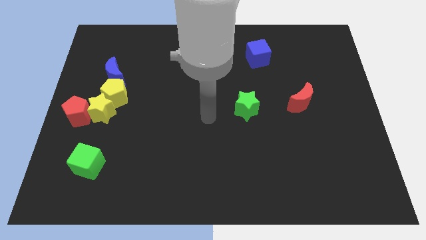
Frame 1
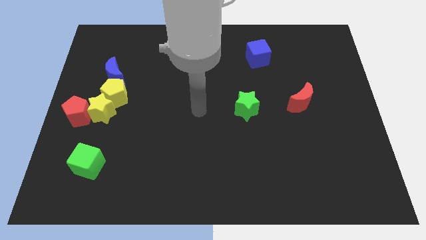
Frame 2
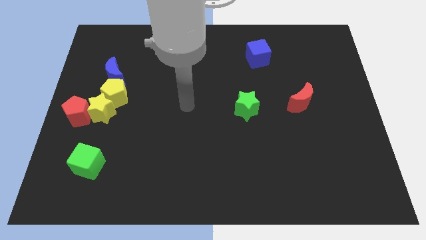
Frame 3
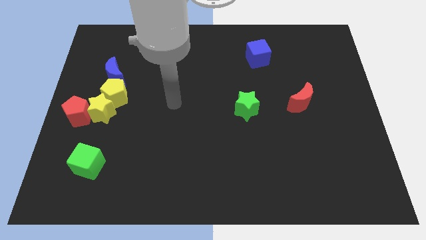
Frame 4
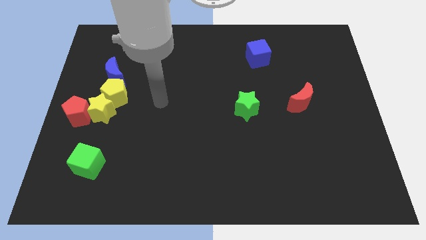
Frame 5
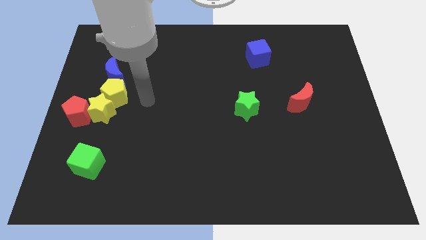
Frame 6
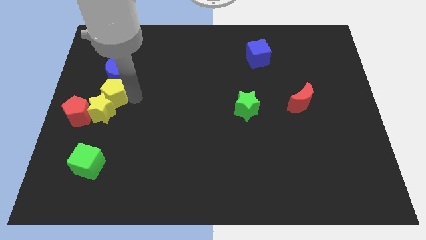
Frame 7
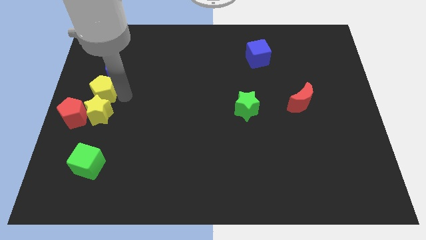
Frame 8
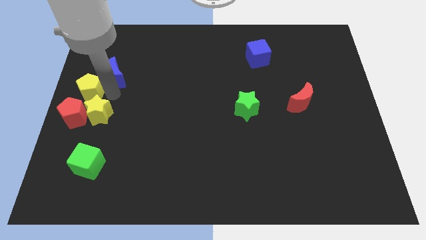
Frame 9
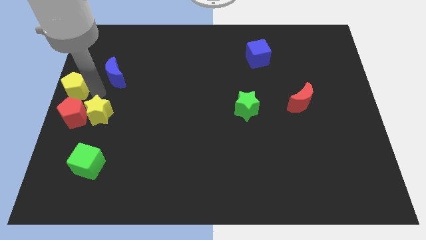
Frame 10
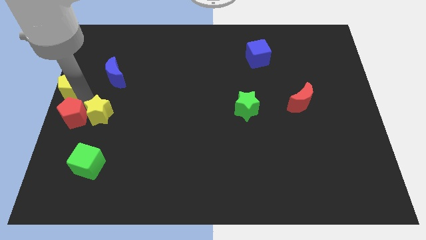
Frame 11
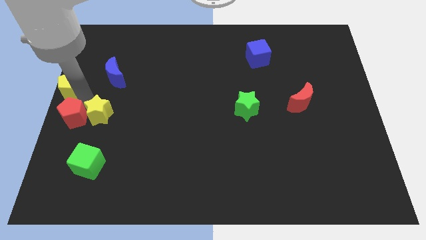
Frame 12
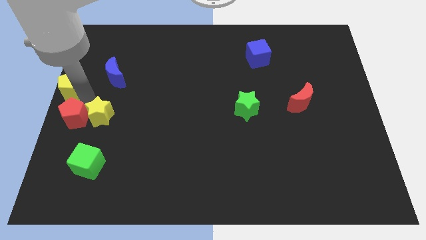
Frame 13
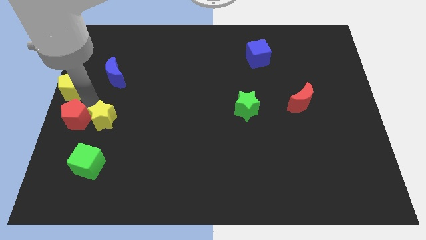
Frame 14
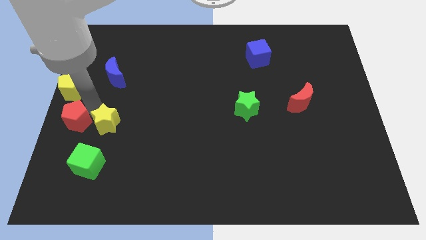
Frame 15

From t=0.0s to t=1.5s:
separate the yellow star from the yellow pentagon and red pentagon

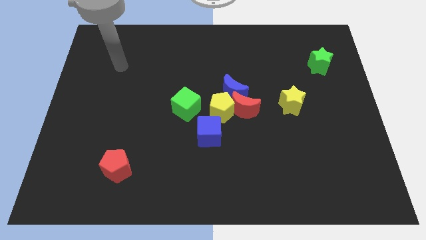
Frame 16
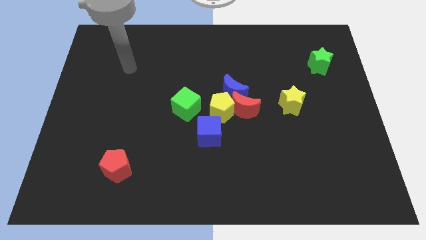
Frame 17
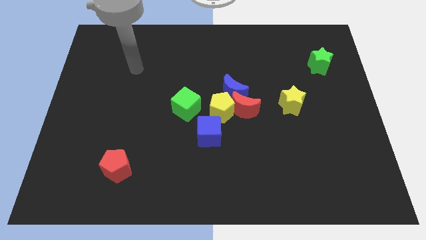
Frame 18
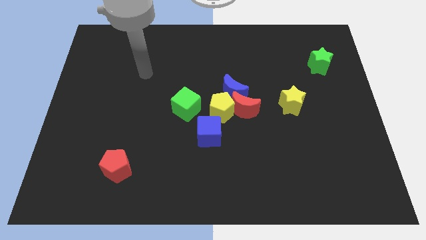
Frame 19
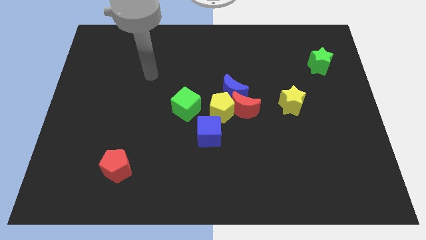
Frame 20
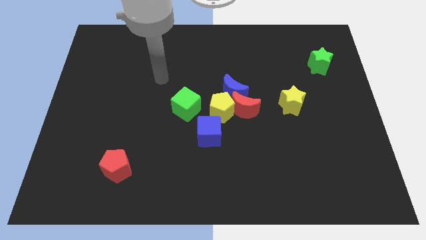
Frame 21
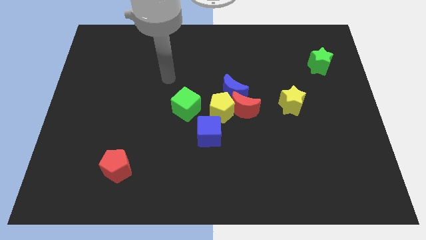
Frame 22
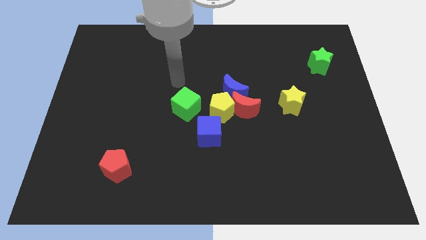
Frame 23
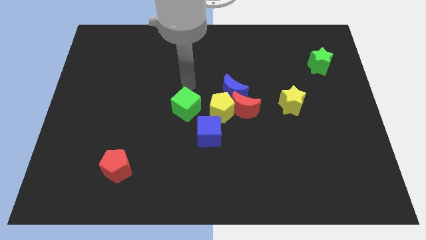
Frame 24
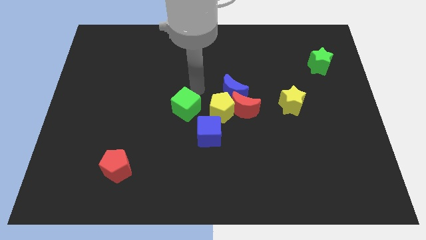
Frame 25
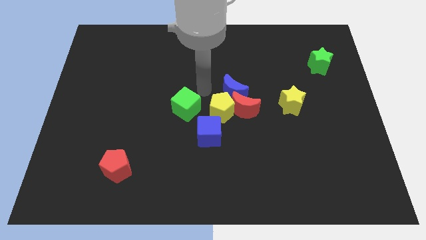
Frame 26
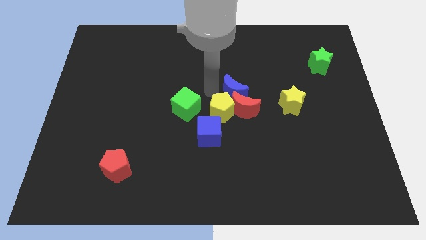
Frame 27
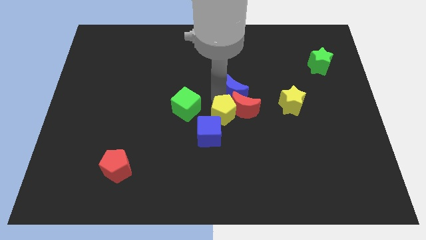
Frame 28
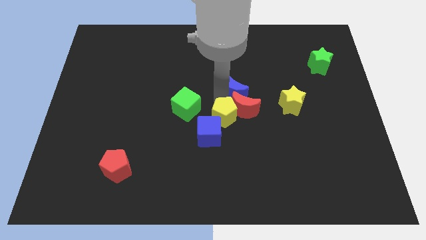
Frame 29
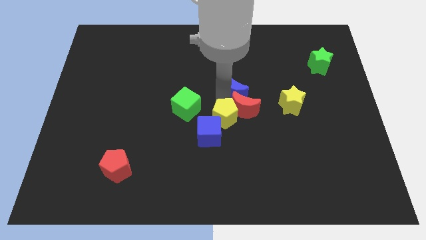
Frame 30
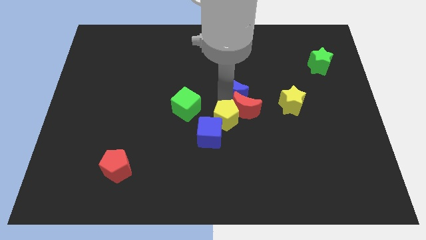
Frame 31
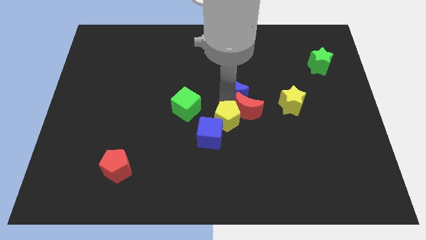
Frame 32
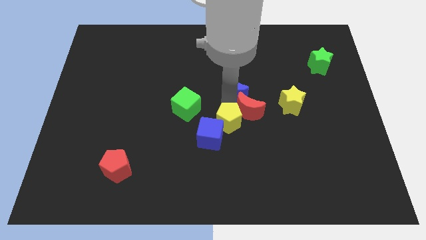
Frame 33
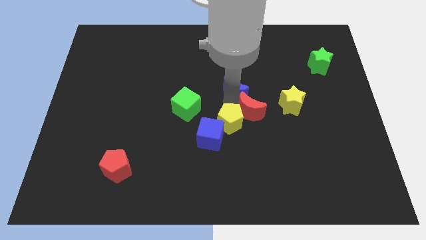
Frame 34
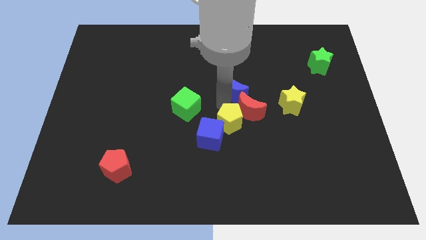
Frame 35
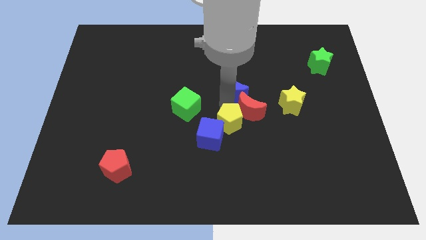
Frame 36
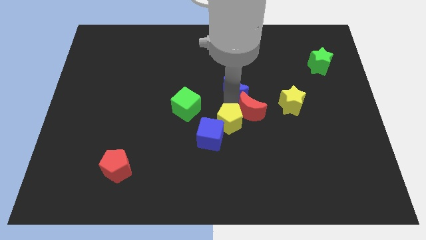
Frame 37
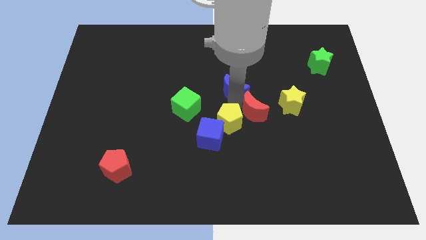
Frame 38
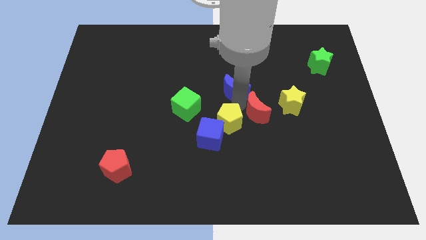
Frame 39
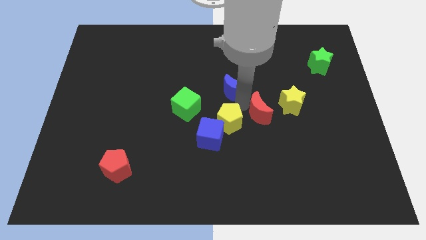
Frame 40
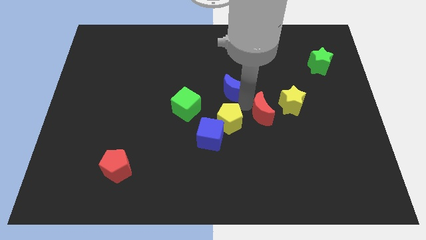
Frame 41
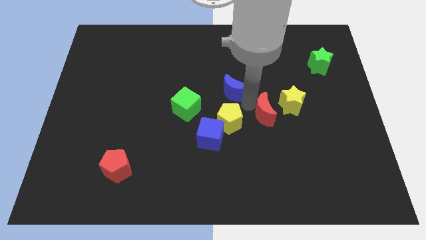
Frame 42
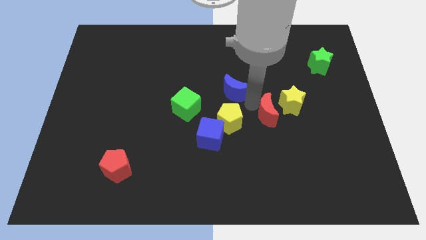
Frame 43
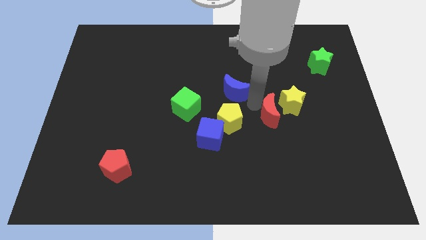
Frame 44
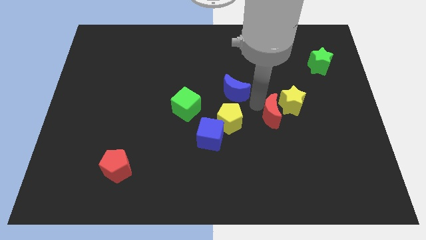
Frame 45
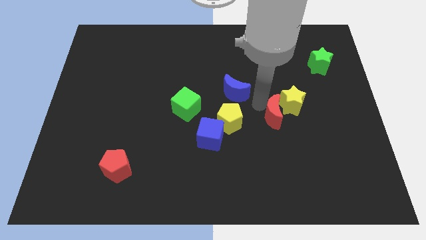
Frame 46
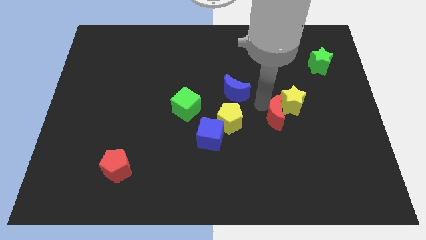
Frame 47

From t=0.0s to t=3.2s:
pull the red moon apart from the yellow pentagon and blue moon

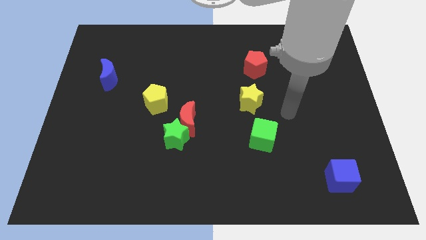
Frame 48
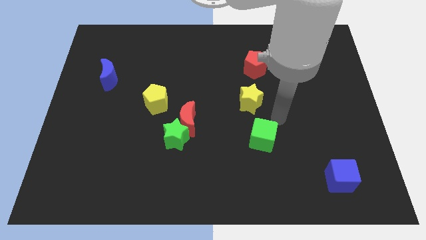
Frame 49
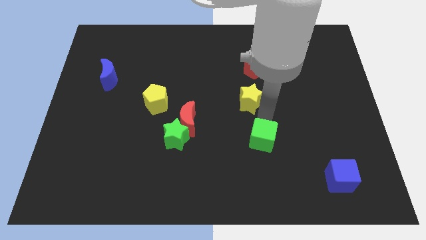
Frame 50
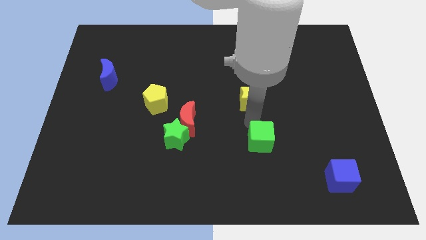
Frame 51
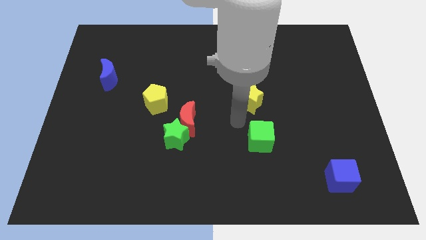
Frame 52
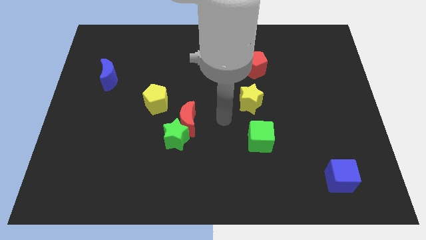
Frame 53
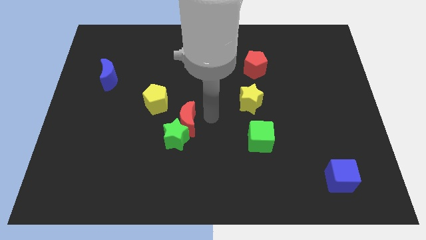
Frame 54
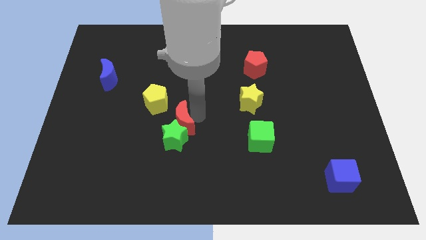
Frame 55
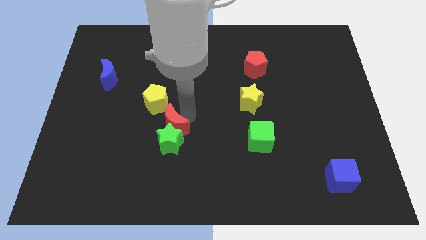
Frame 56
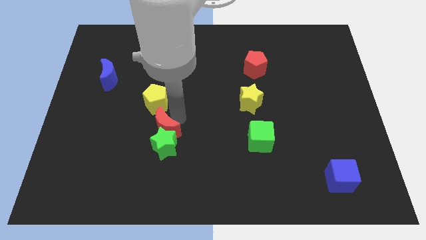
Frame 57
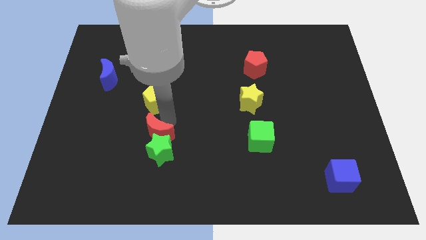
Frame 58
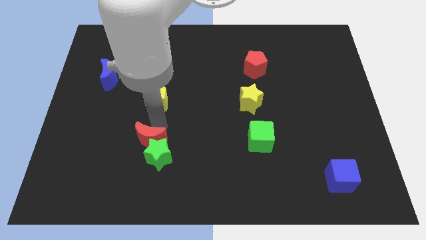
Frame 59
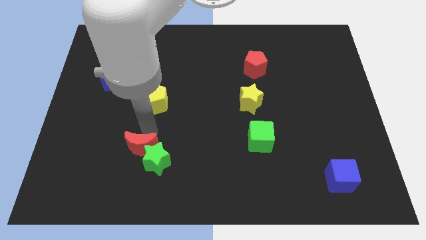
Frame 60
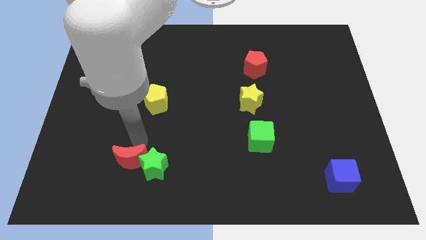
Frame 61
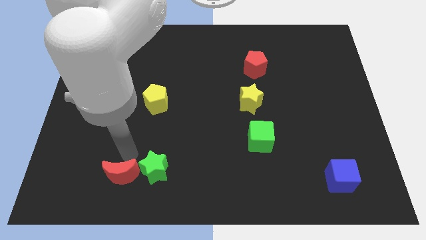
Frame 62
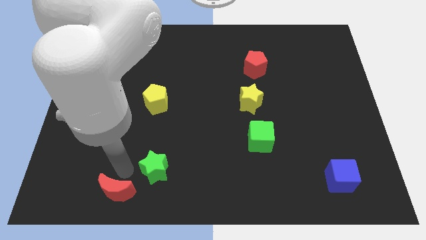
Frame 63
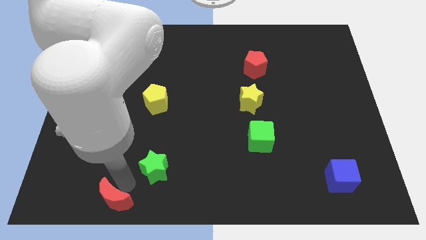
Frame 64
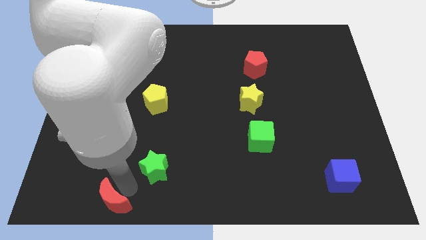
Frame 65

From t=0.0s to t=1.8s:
pull the green star apart from the red moon

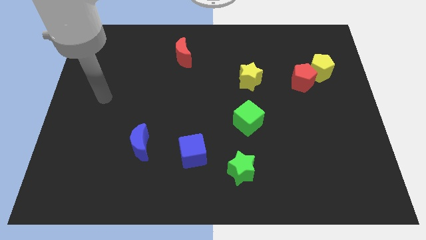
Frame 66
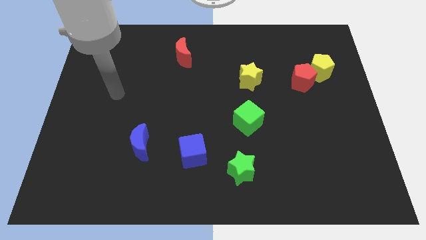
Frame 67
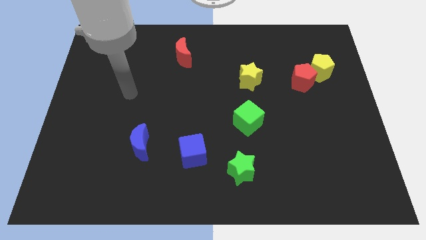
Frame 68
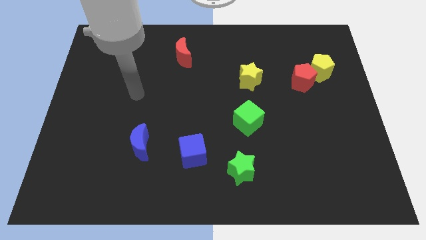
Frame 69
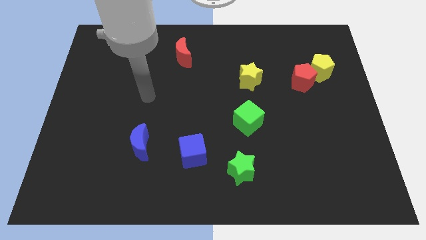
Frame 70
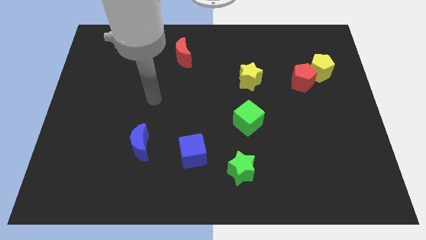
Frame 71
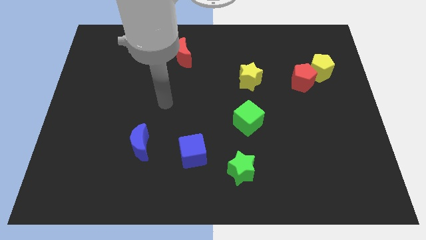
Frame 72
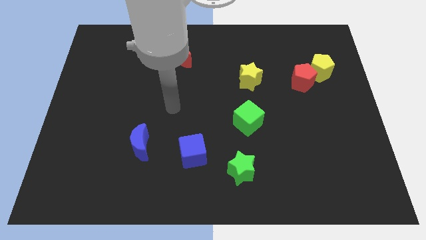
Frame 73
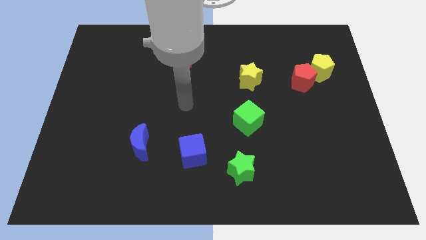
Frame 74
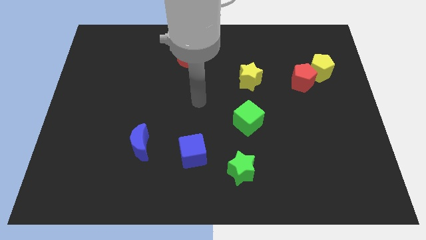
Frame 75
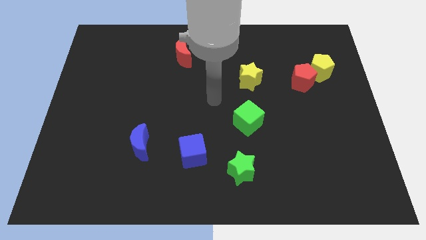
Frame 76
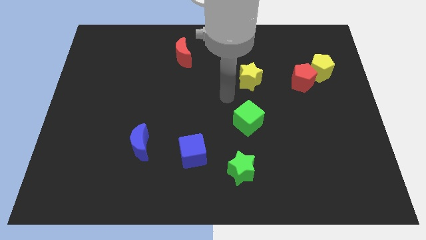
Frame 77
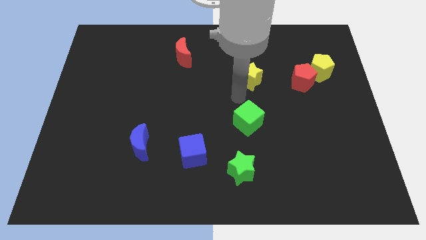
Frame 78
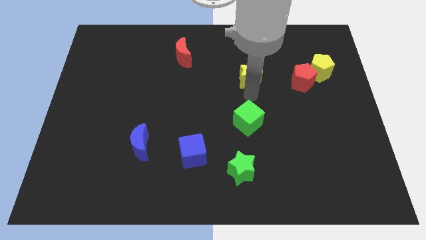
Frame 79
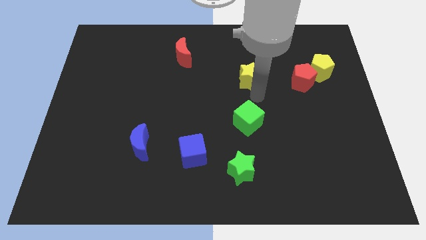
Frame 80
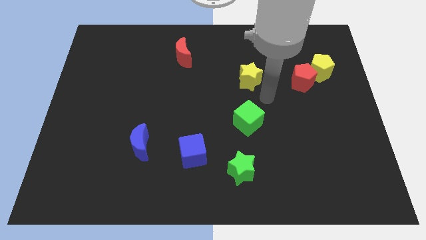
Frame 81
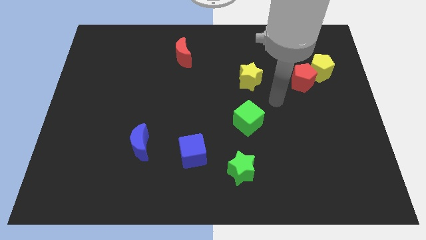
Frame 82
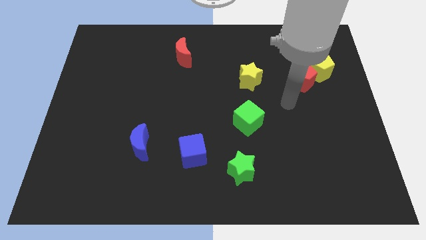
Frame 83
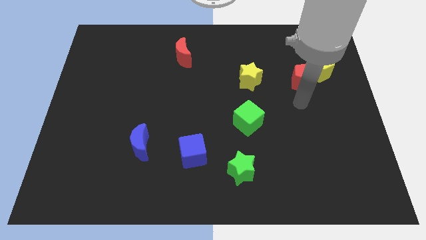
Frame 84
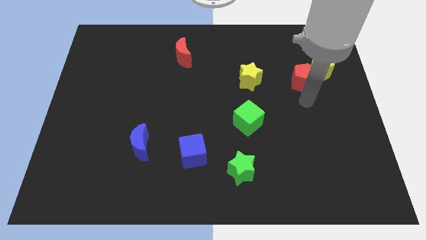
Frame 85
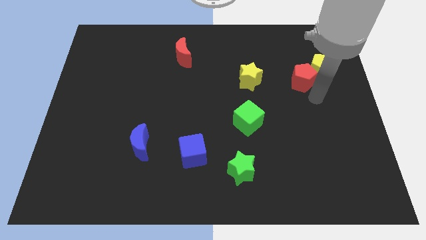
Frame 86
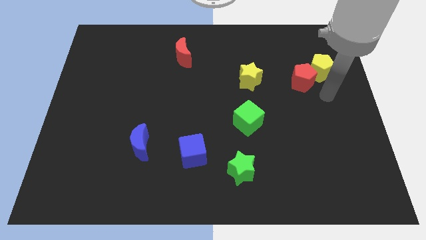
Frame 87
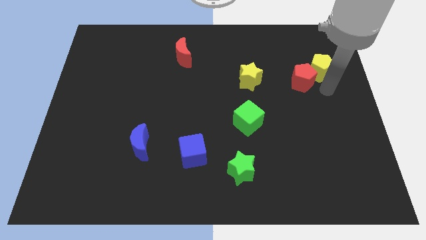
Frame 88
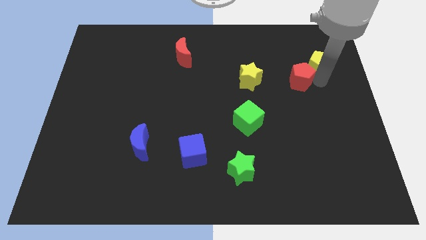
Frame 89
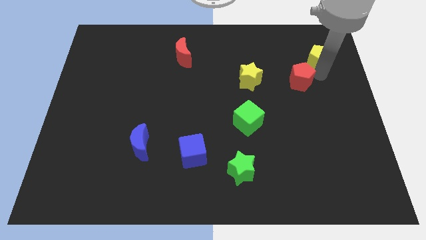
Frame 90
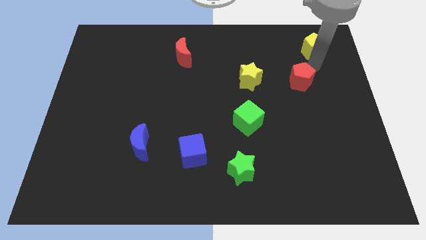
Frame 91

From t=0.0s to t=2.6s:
move the red pentagon away from the yellow pentagon

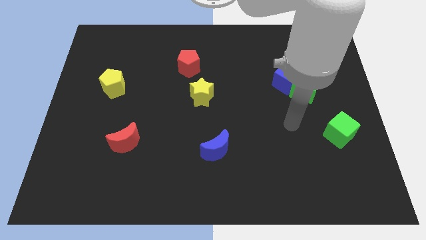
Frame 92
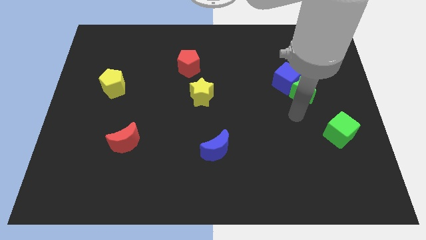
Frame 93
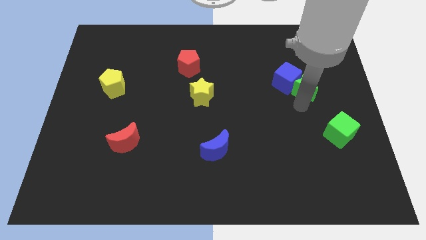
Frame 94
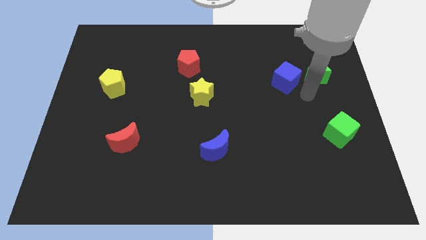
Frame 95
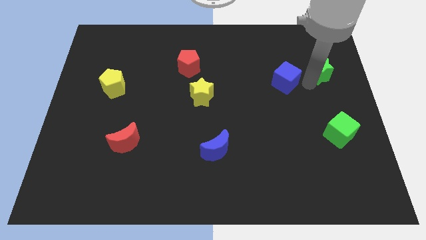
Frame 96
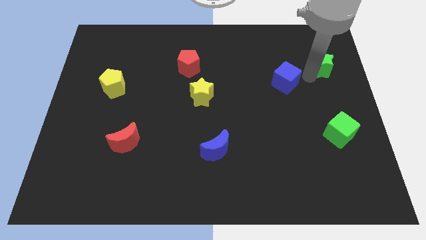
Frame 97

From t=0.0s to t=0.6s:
separate the blue cube from the green star
